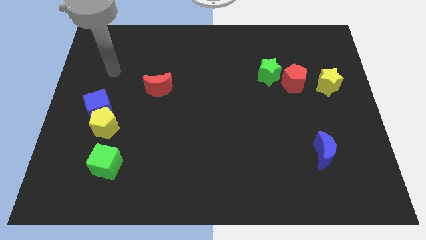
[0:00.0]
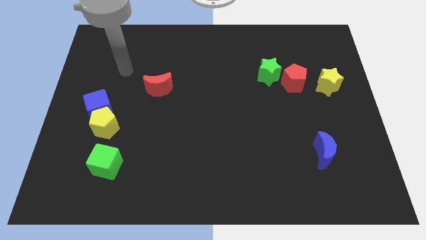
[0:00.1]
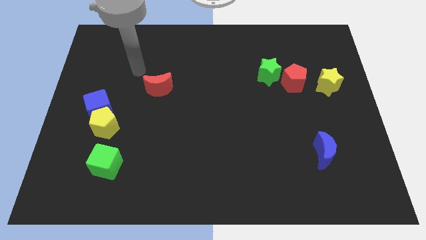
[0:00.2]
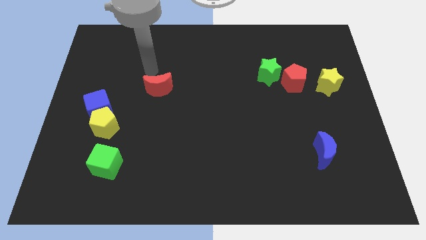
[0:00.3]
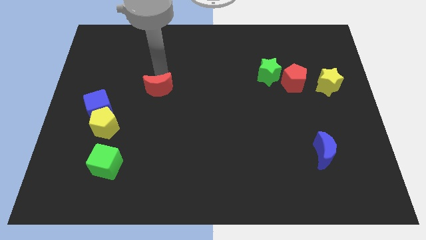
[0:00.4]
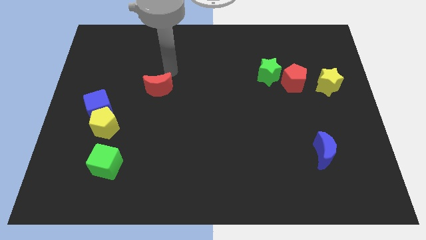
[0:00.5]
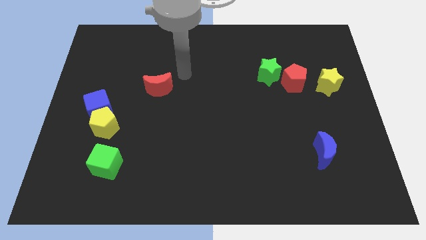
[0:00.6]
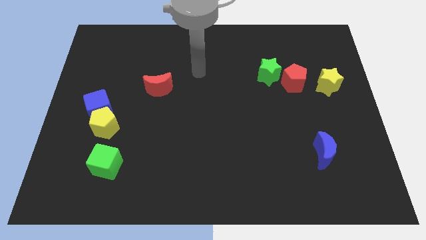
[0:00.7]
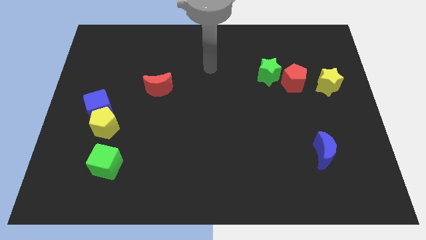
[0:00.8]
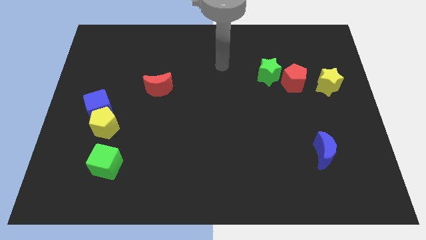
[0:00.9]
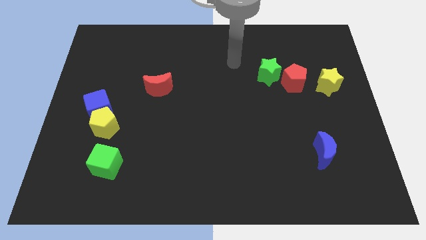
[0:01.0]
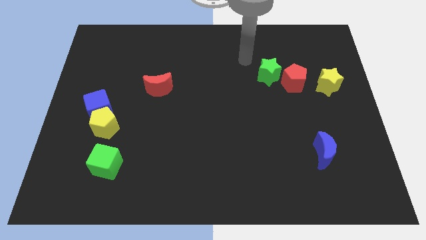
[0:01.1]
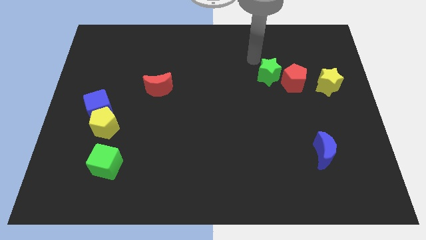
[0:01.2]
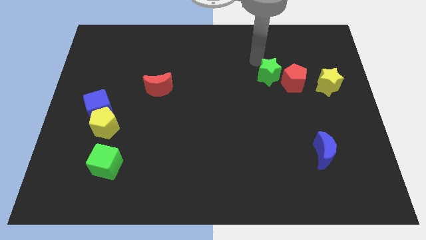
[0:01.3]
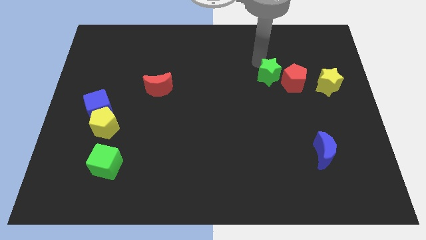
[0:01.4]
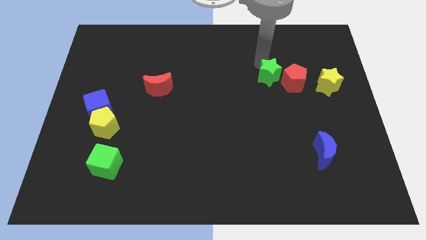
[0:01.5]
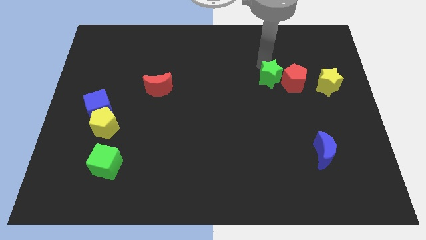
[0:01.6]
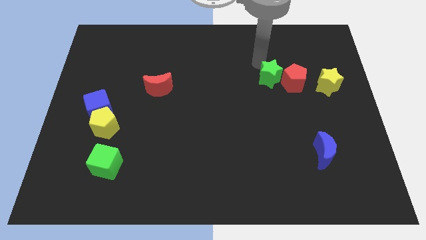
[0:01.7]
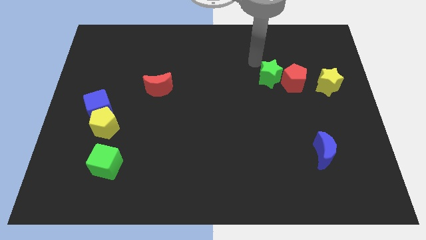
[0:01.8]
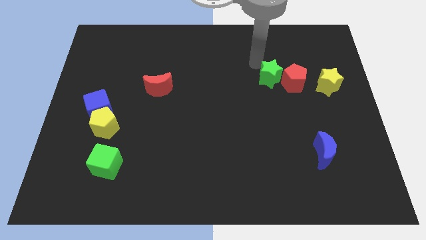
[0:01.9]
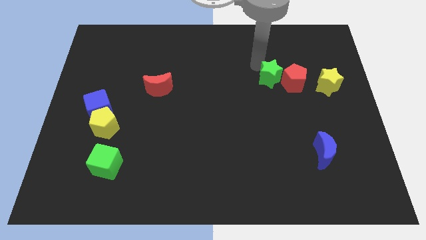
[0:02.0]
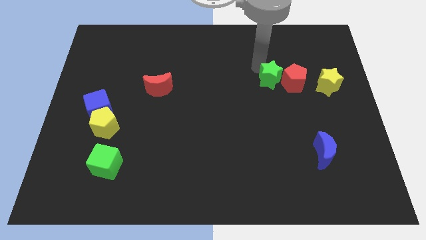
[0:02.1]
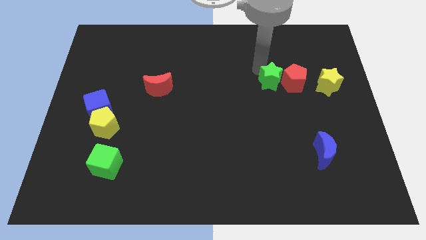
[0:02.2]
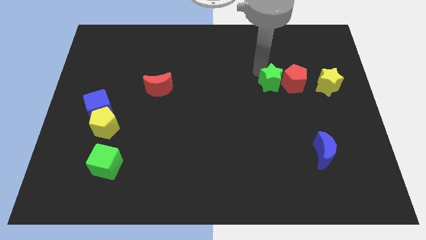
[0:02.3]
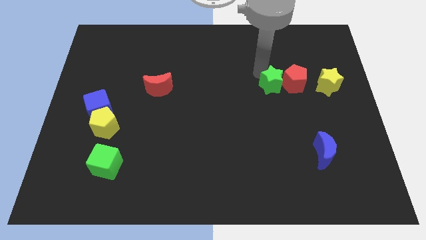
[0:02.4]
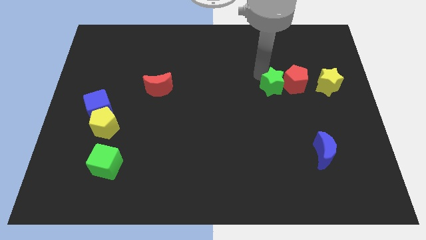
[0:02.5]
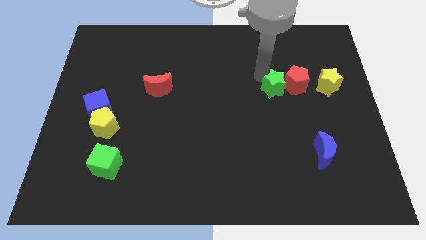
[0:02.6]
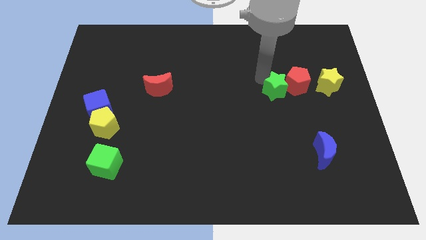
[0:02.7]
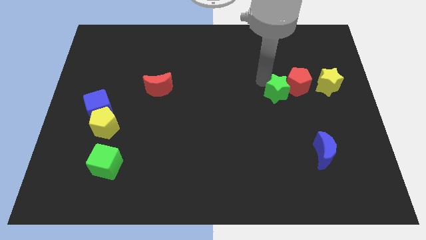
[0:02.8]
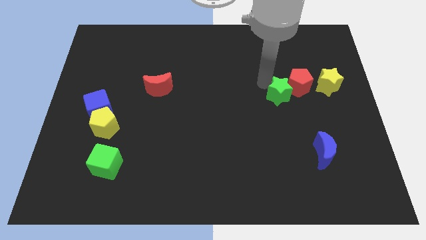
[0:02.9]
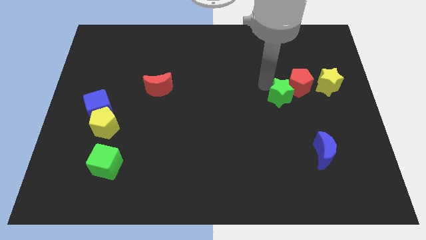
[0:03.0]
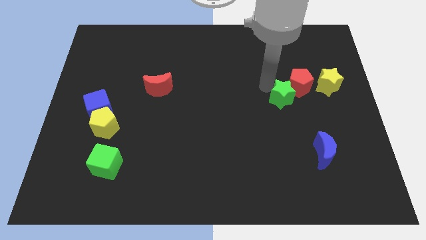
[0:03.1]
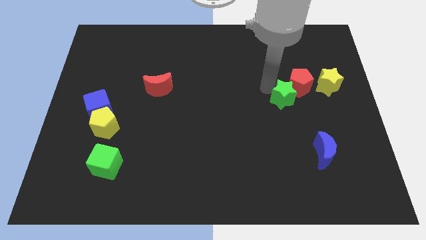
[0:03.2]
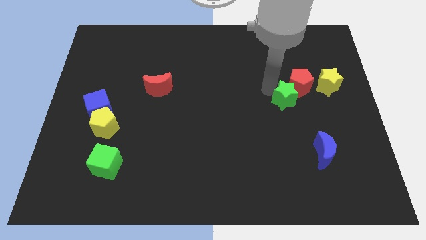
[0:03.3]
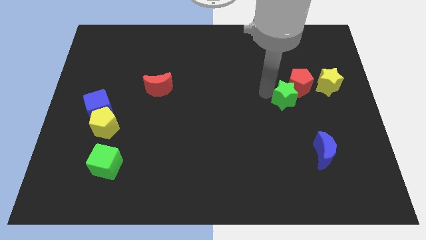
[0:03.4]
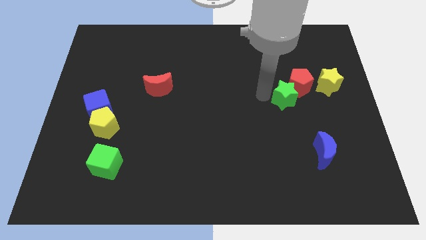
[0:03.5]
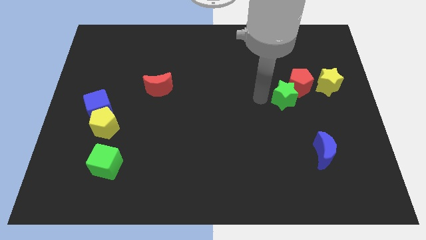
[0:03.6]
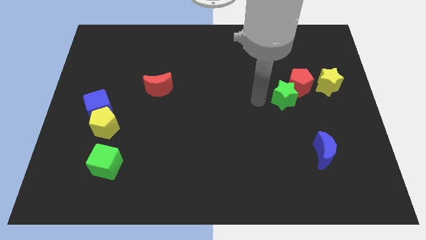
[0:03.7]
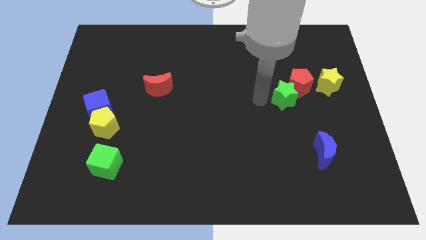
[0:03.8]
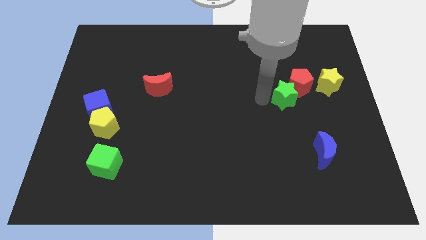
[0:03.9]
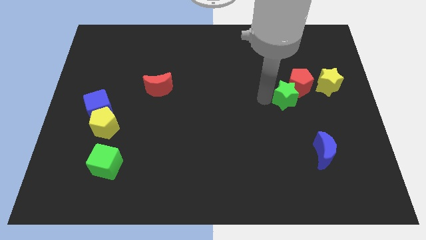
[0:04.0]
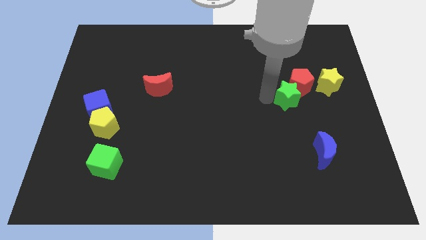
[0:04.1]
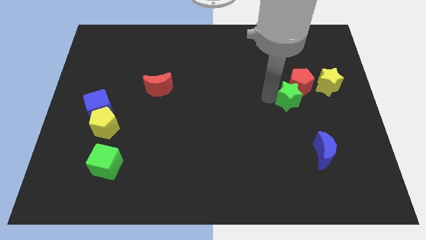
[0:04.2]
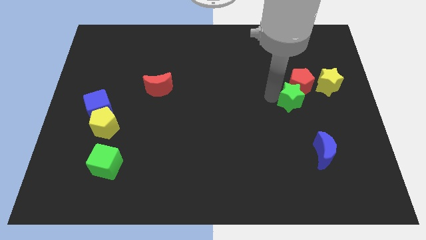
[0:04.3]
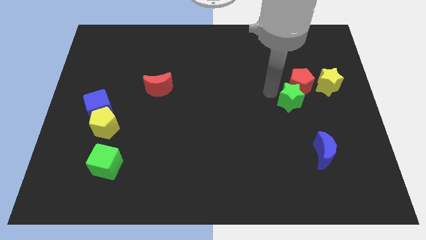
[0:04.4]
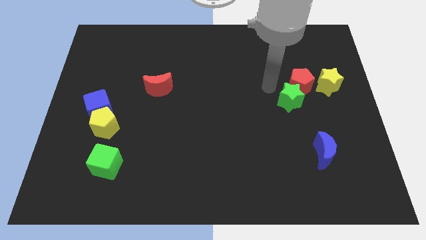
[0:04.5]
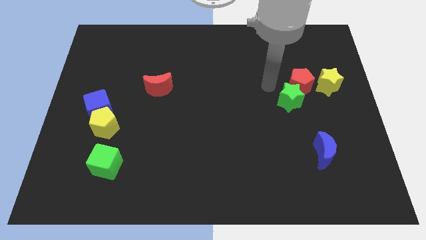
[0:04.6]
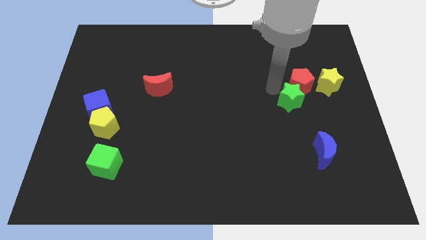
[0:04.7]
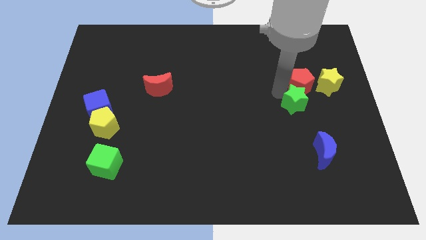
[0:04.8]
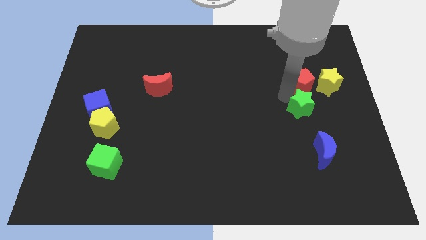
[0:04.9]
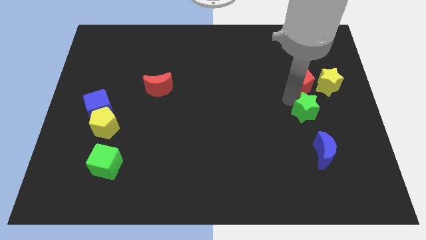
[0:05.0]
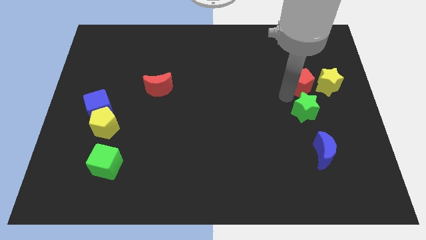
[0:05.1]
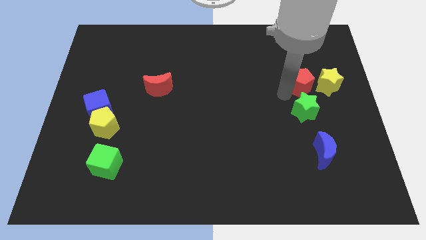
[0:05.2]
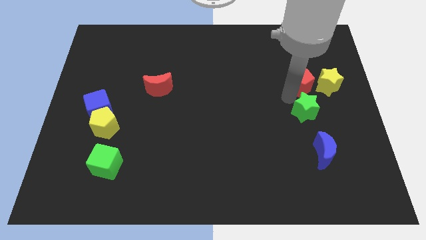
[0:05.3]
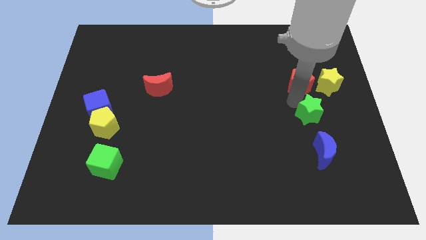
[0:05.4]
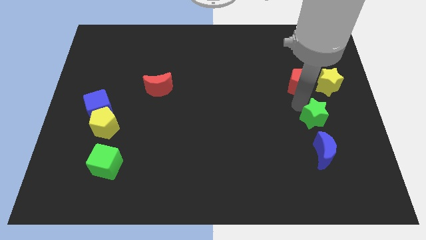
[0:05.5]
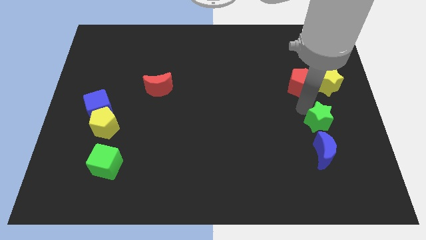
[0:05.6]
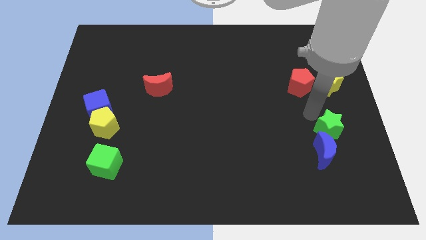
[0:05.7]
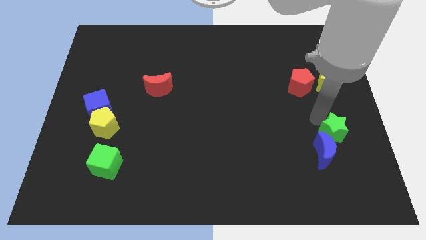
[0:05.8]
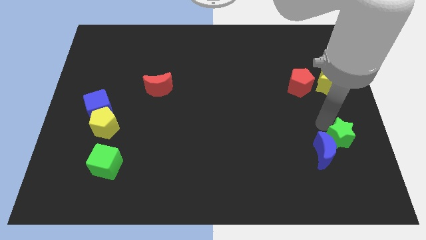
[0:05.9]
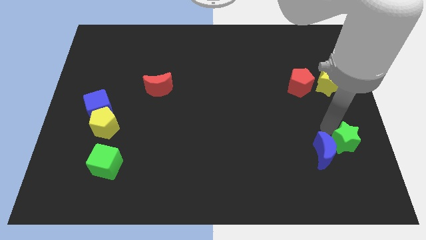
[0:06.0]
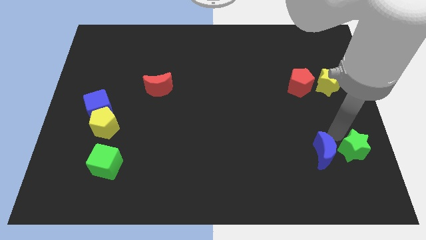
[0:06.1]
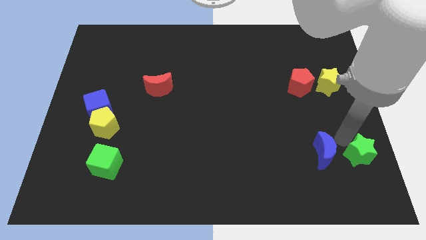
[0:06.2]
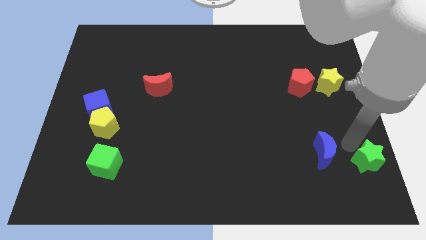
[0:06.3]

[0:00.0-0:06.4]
slide the green star to the lower right corner

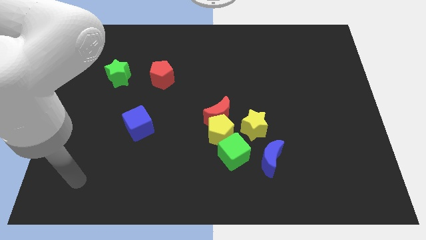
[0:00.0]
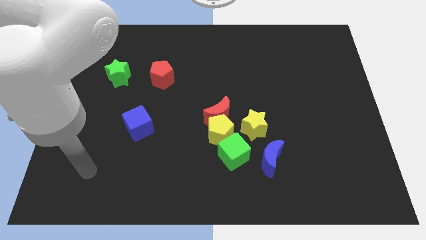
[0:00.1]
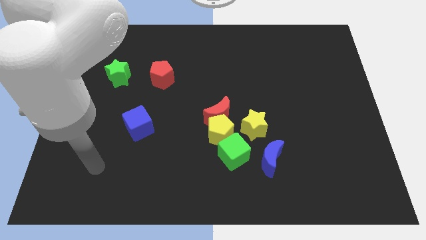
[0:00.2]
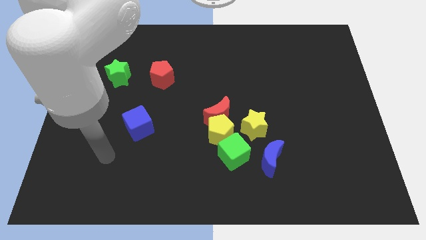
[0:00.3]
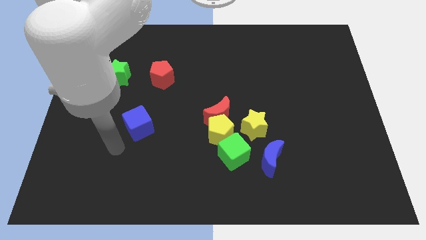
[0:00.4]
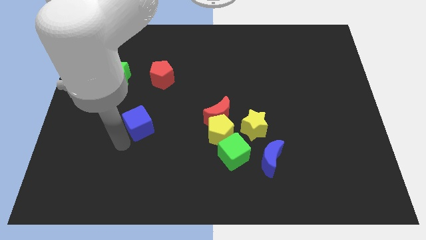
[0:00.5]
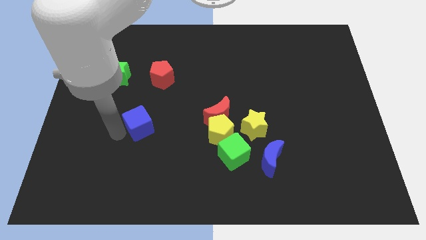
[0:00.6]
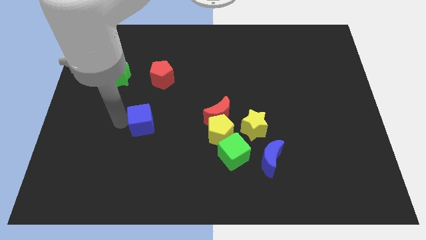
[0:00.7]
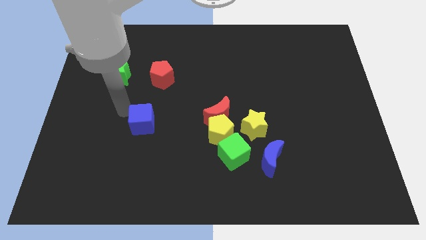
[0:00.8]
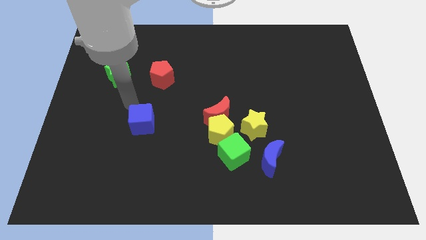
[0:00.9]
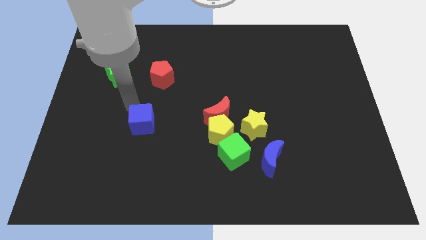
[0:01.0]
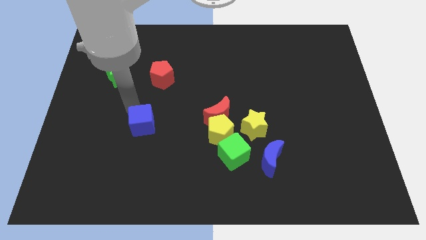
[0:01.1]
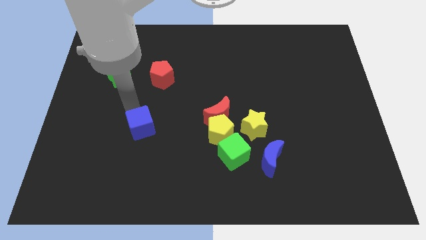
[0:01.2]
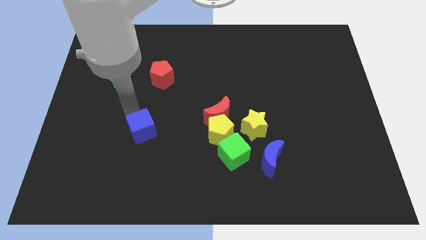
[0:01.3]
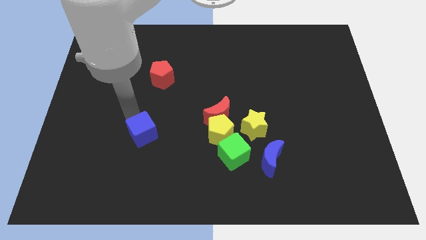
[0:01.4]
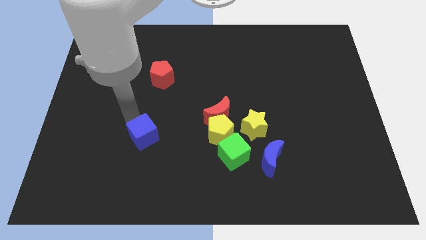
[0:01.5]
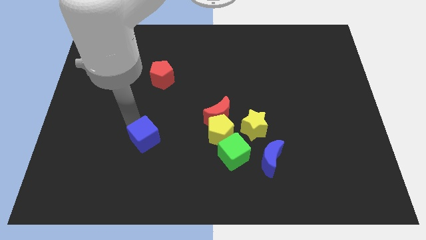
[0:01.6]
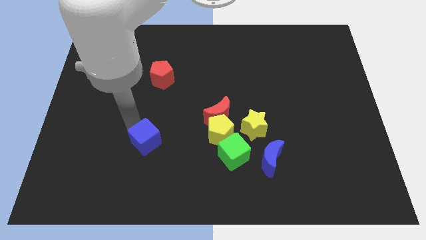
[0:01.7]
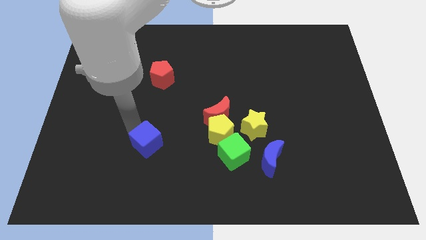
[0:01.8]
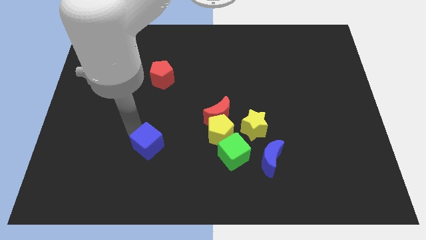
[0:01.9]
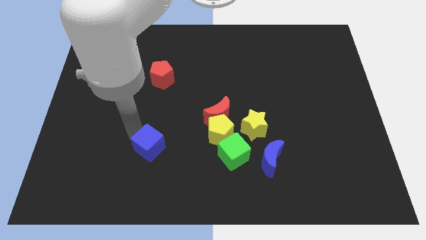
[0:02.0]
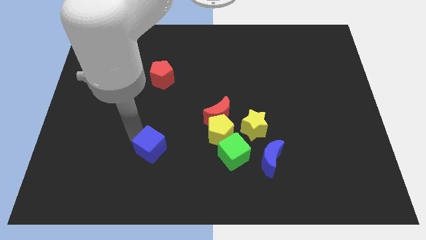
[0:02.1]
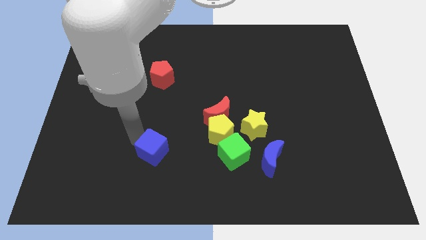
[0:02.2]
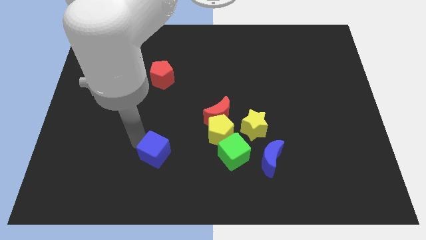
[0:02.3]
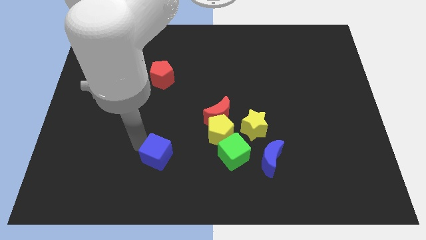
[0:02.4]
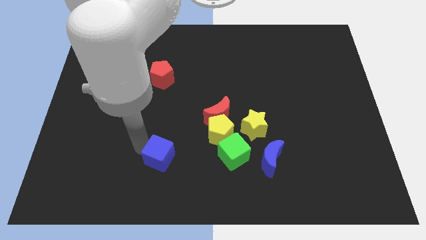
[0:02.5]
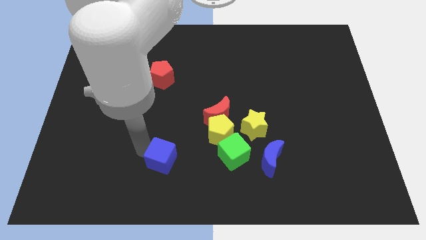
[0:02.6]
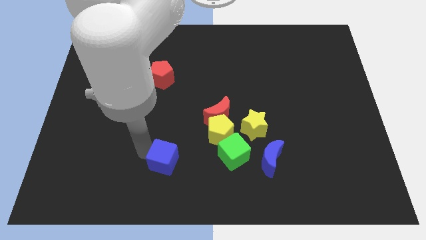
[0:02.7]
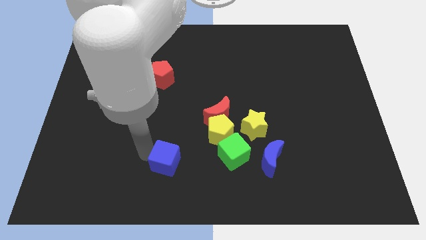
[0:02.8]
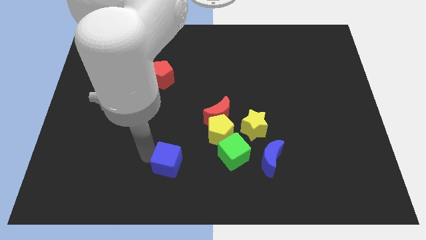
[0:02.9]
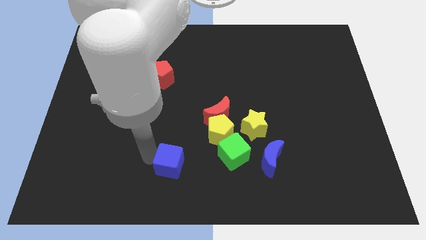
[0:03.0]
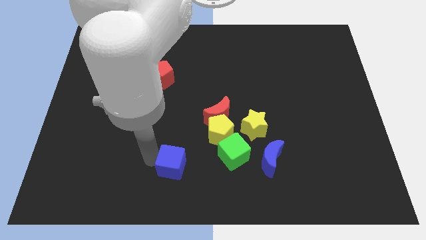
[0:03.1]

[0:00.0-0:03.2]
put the blue cube to the bottom side
